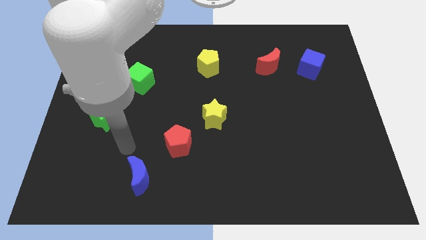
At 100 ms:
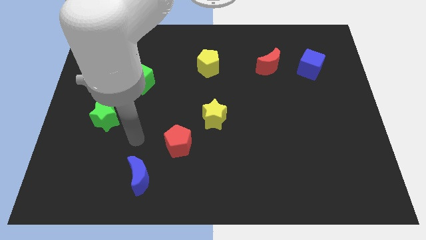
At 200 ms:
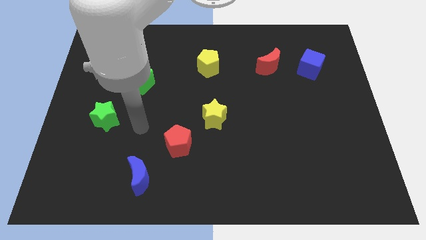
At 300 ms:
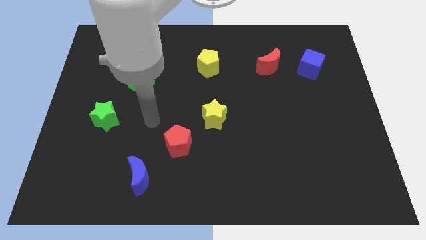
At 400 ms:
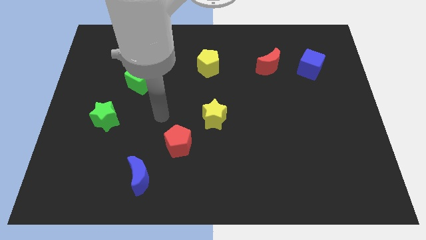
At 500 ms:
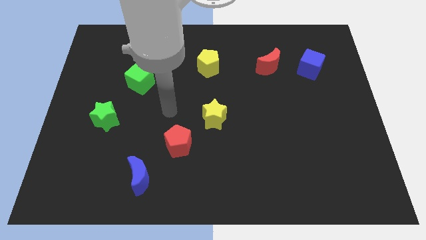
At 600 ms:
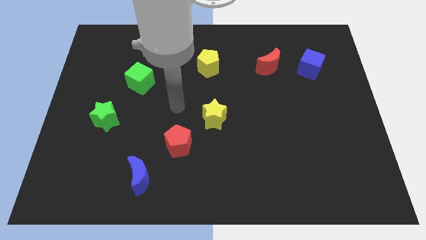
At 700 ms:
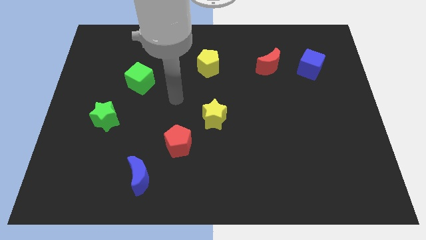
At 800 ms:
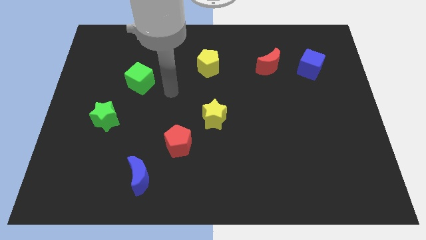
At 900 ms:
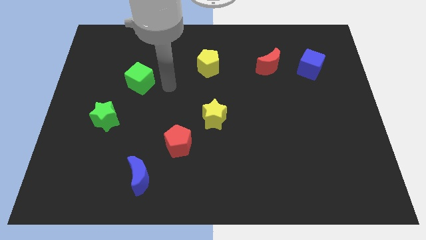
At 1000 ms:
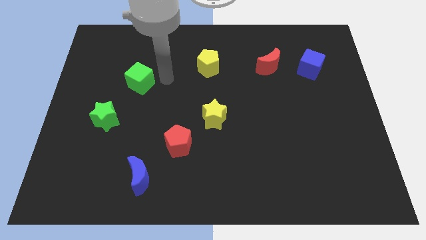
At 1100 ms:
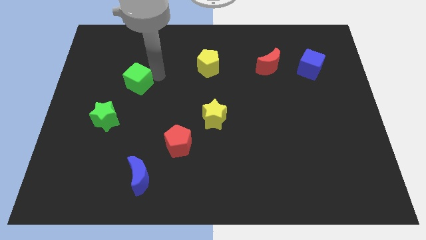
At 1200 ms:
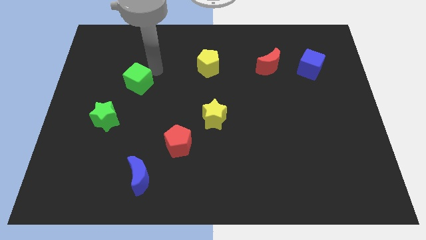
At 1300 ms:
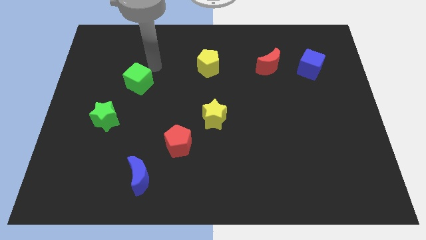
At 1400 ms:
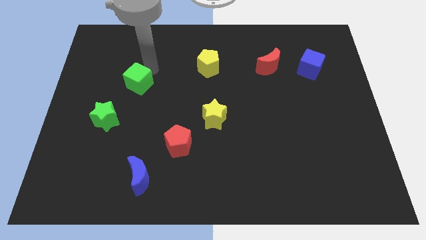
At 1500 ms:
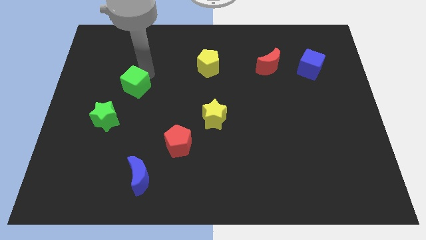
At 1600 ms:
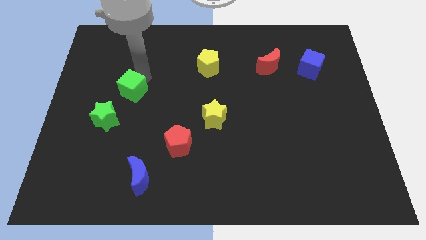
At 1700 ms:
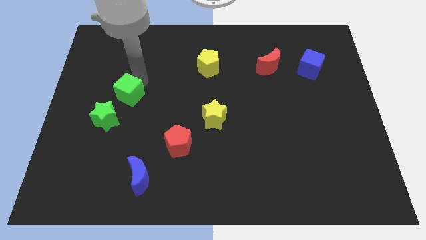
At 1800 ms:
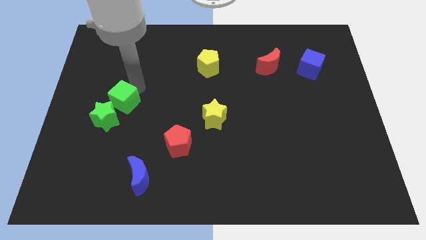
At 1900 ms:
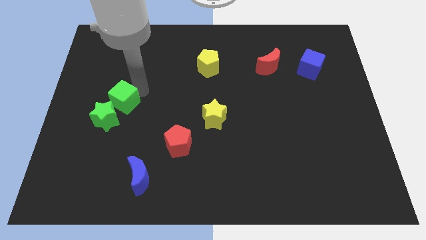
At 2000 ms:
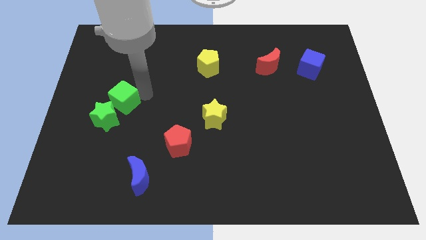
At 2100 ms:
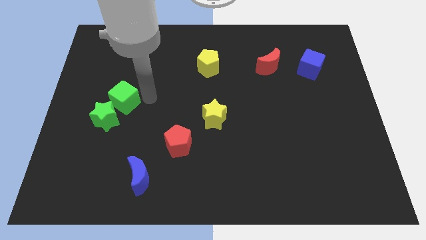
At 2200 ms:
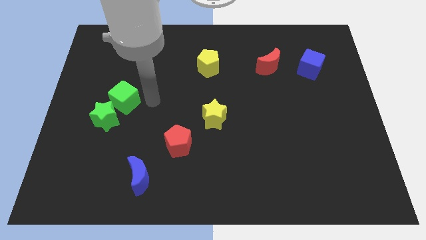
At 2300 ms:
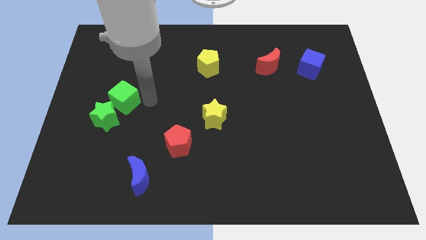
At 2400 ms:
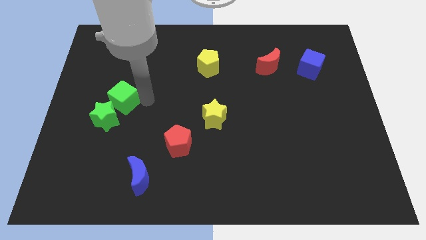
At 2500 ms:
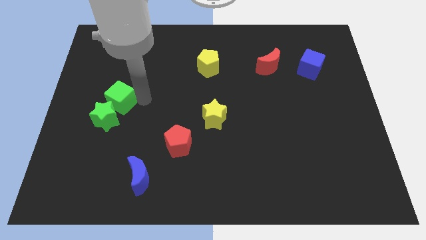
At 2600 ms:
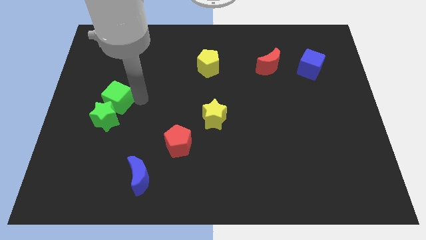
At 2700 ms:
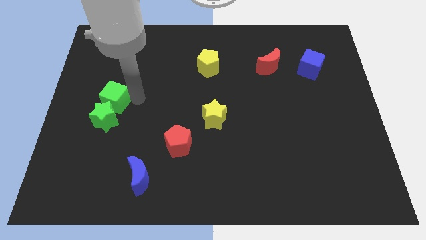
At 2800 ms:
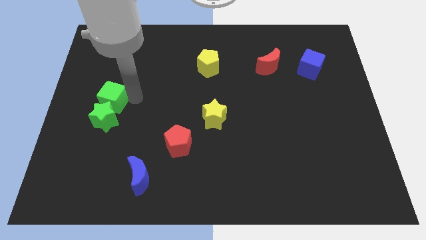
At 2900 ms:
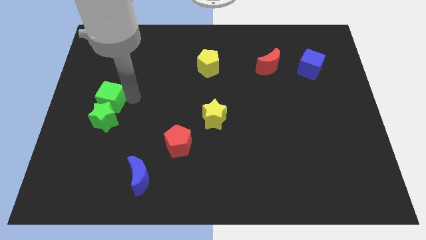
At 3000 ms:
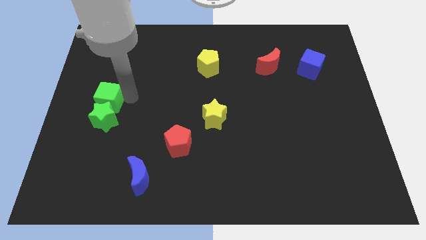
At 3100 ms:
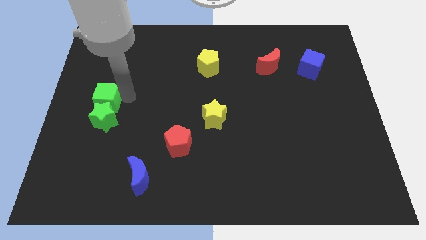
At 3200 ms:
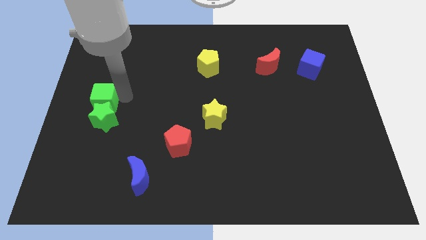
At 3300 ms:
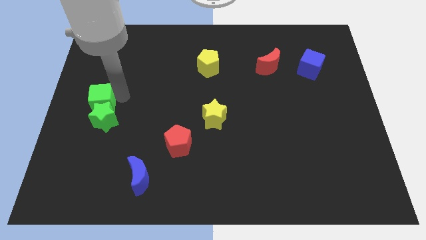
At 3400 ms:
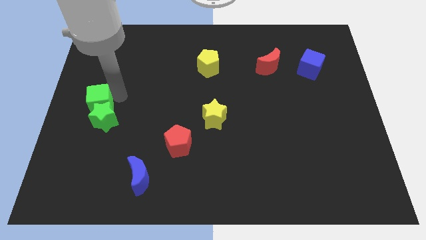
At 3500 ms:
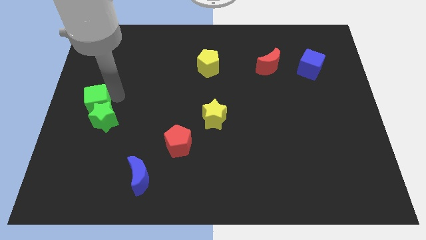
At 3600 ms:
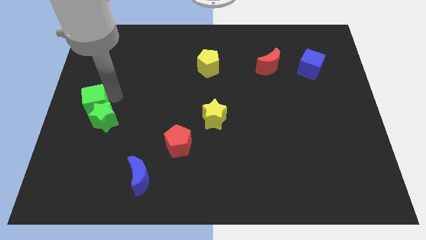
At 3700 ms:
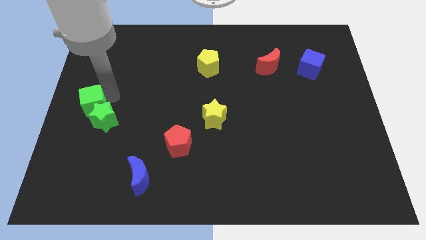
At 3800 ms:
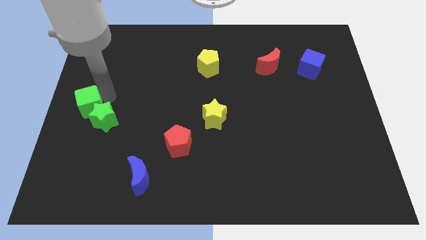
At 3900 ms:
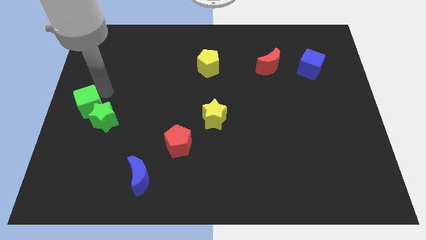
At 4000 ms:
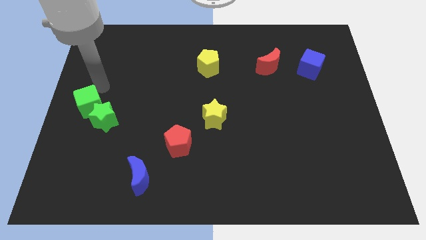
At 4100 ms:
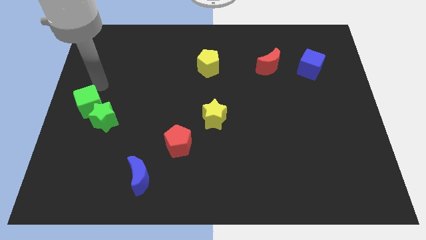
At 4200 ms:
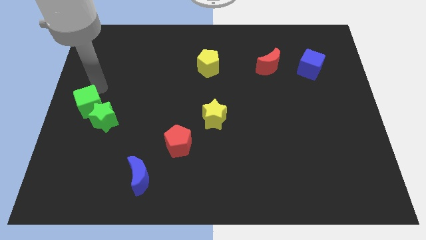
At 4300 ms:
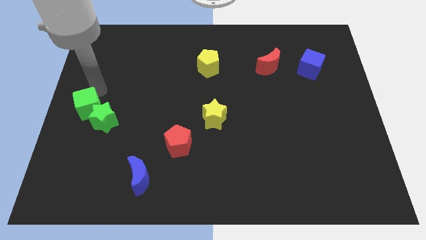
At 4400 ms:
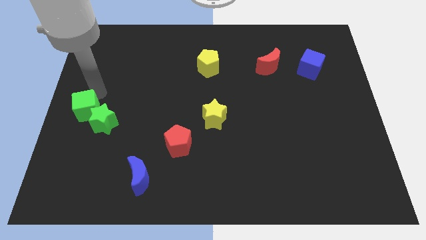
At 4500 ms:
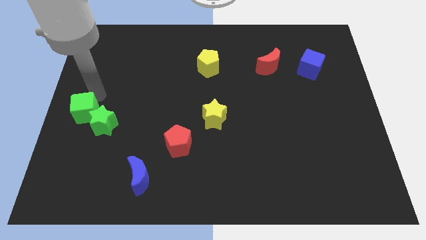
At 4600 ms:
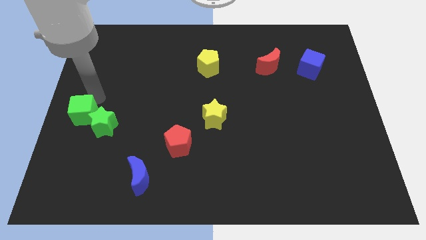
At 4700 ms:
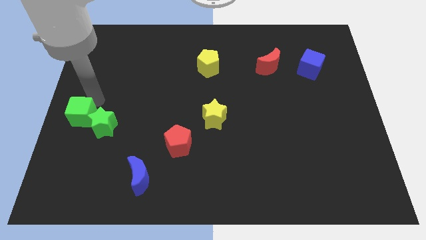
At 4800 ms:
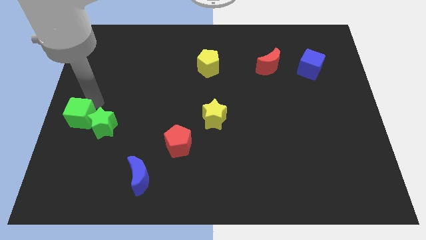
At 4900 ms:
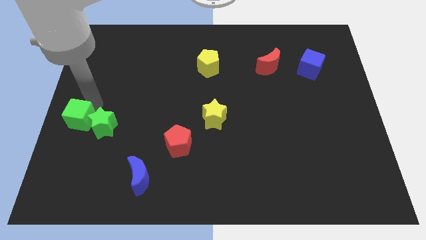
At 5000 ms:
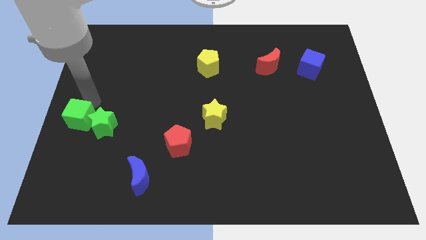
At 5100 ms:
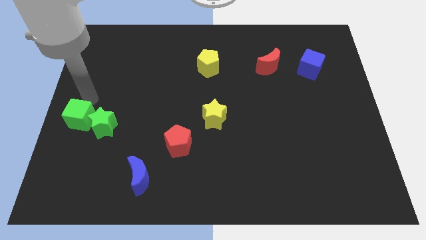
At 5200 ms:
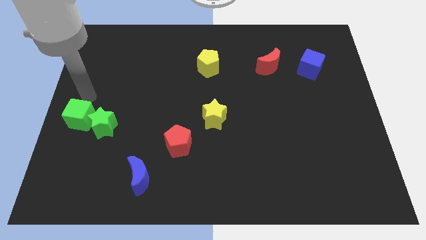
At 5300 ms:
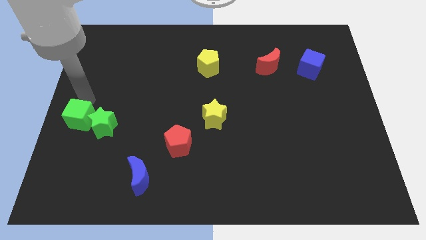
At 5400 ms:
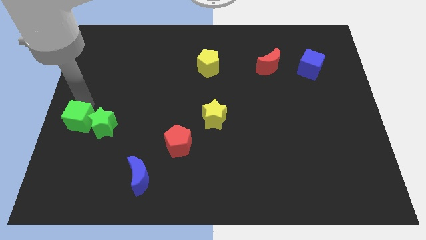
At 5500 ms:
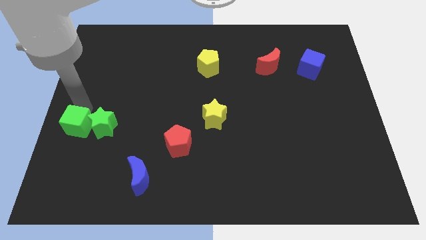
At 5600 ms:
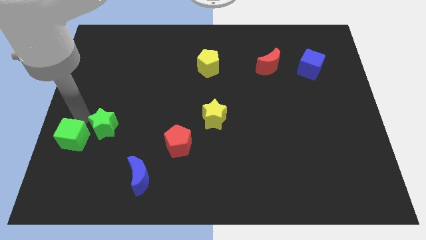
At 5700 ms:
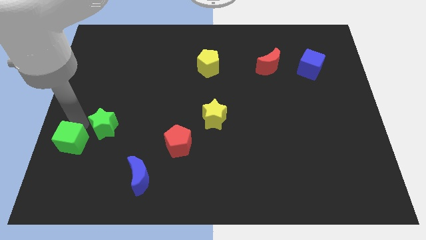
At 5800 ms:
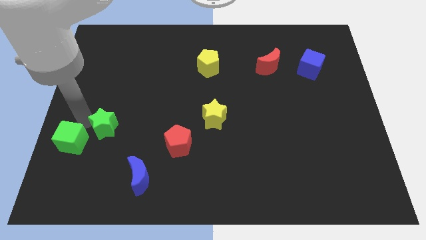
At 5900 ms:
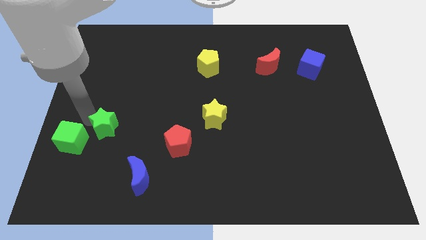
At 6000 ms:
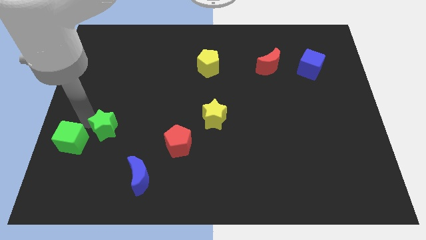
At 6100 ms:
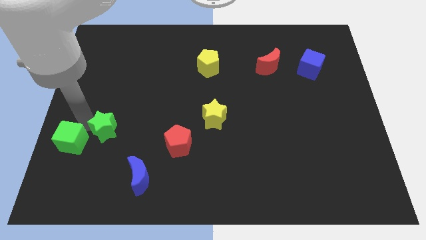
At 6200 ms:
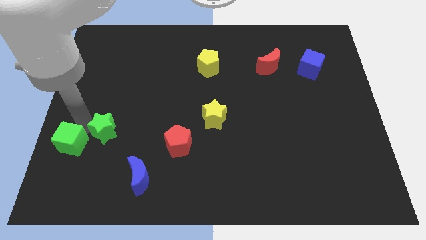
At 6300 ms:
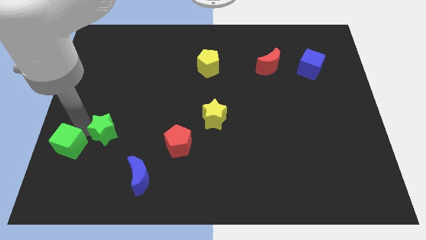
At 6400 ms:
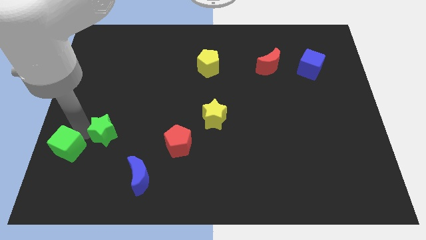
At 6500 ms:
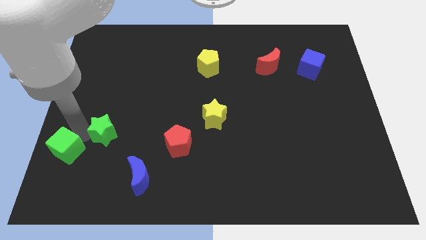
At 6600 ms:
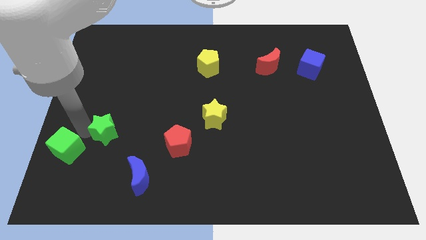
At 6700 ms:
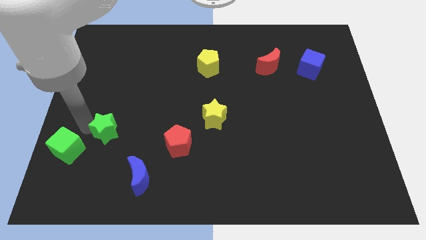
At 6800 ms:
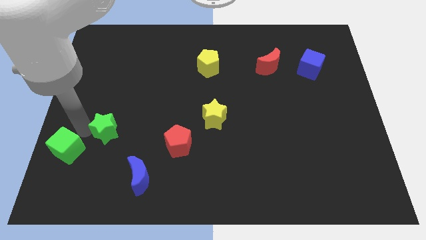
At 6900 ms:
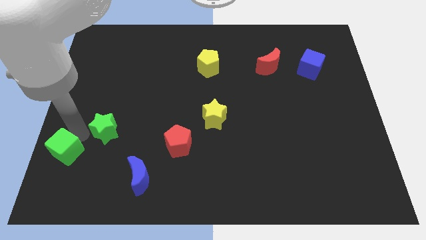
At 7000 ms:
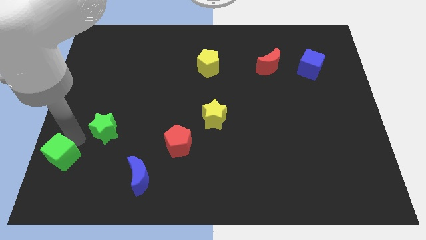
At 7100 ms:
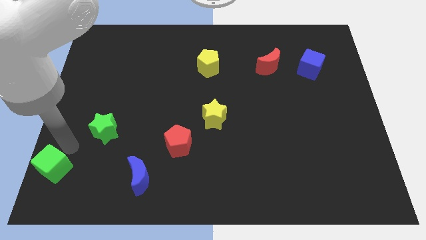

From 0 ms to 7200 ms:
push the green cube to the lower left corner

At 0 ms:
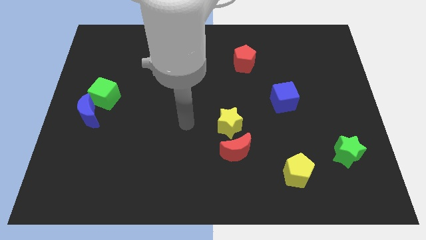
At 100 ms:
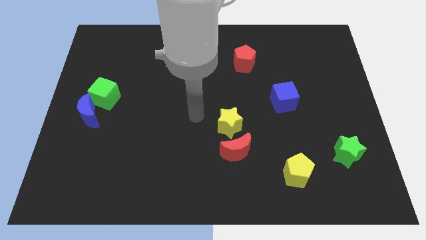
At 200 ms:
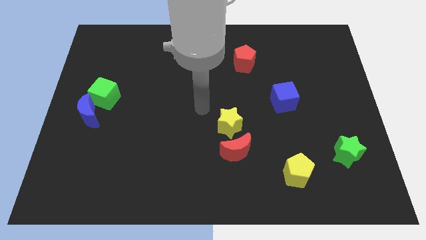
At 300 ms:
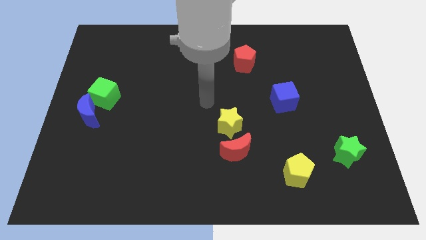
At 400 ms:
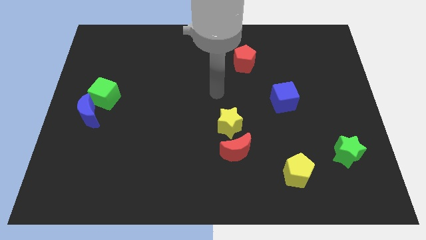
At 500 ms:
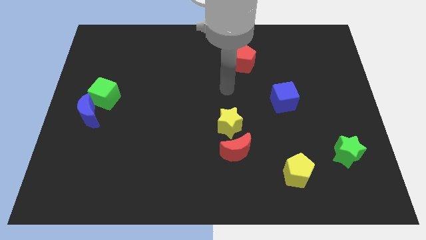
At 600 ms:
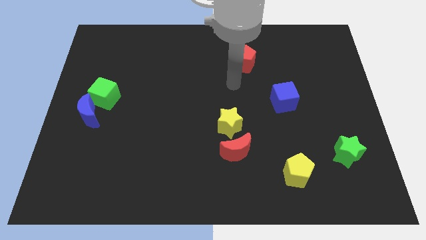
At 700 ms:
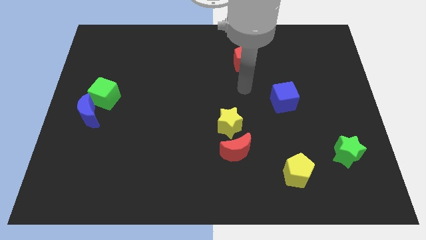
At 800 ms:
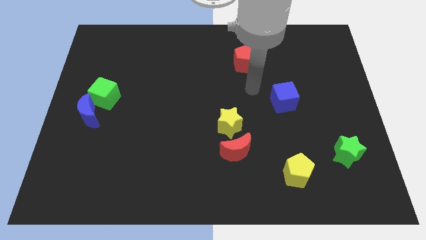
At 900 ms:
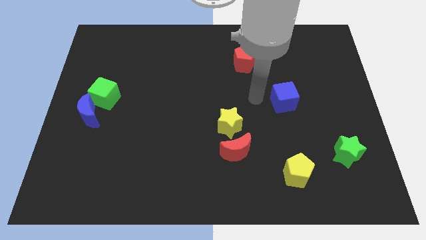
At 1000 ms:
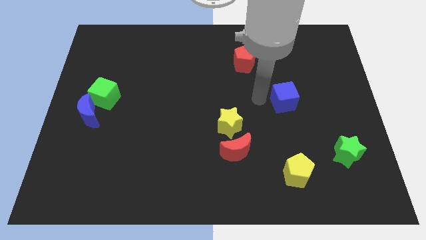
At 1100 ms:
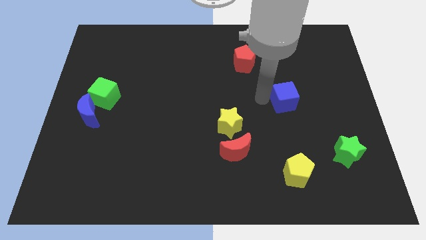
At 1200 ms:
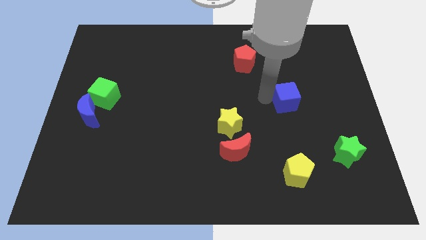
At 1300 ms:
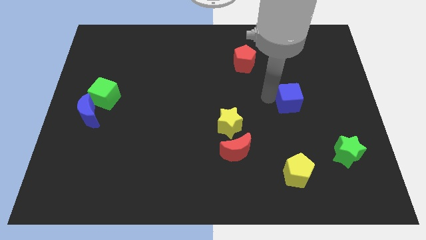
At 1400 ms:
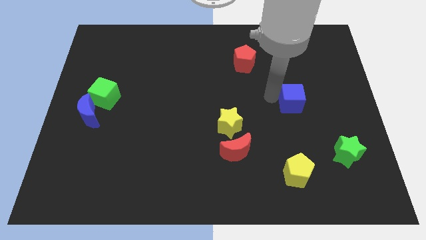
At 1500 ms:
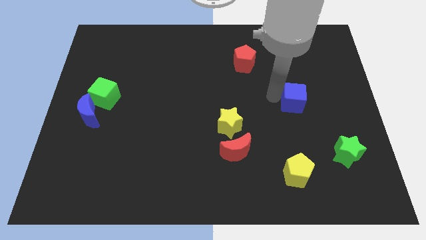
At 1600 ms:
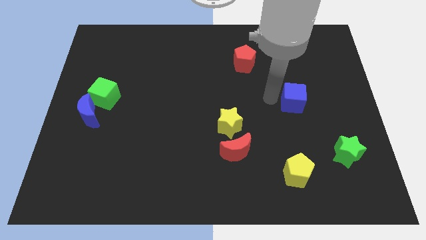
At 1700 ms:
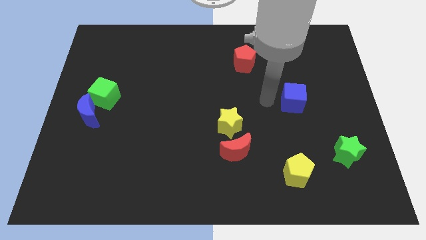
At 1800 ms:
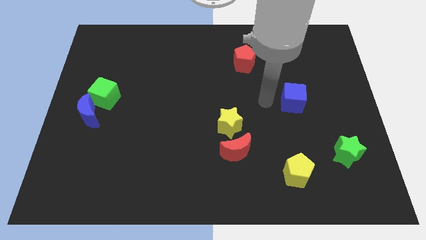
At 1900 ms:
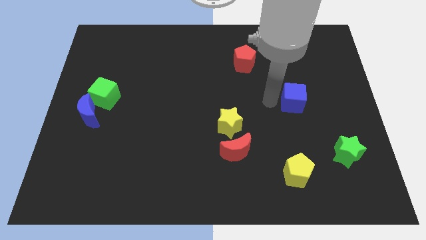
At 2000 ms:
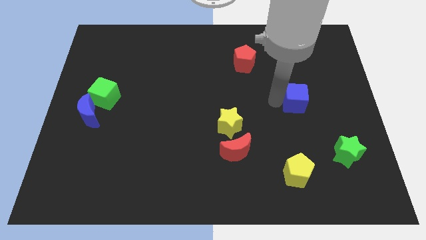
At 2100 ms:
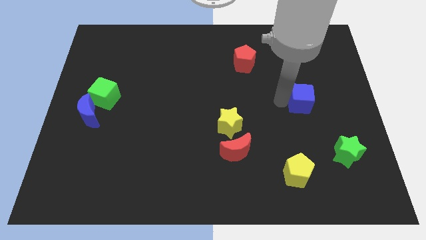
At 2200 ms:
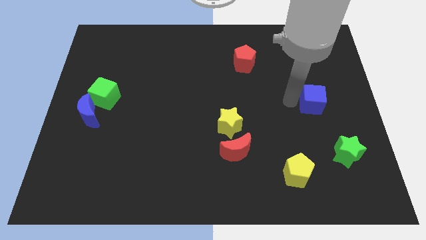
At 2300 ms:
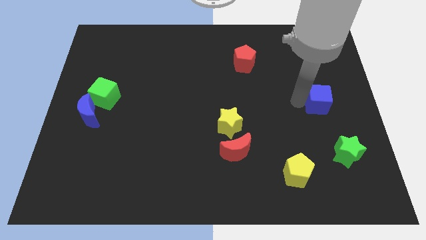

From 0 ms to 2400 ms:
put the blue cube to the right side of the board
